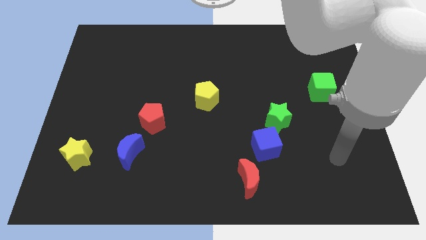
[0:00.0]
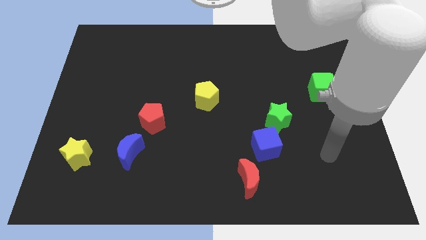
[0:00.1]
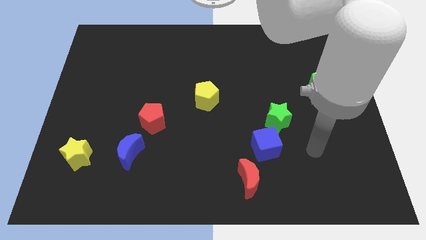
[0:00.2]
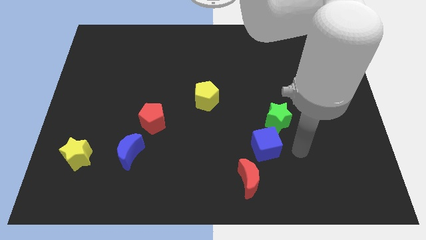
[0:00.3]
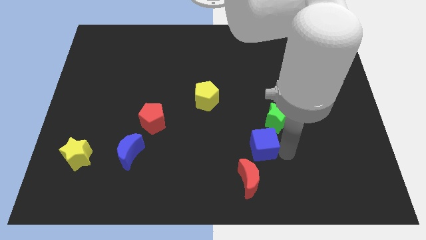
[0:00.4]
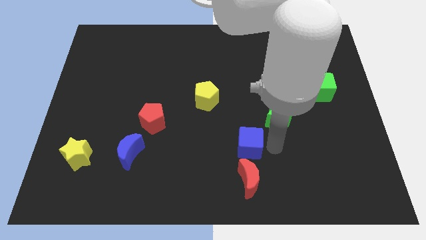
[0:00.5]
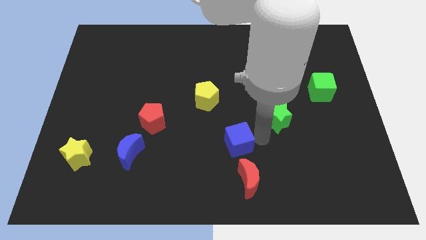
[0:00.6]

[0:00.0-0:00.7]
separate the green star from the blue cube

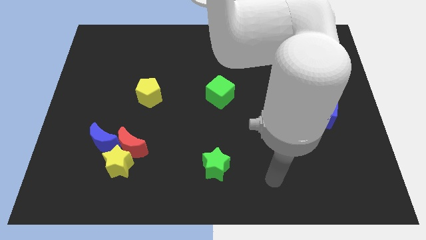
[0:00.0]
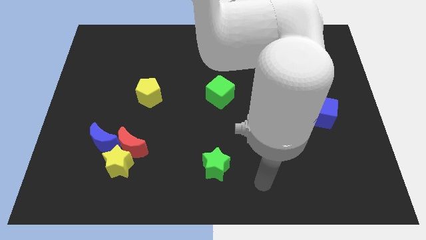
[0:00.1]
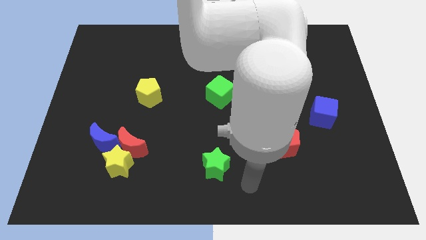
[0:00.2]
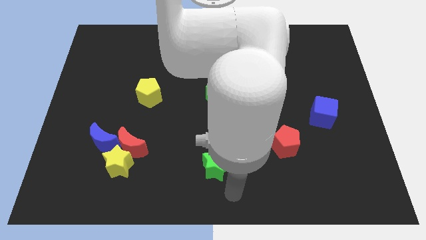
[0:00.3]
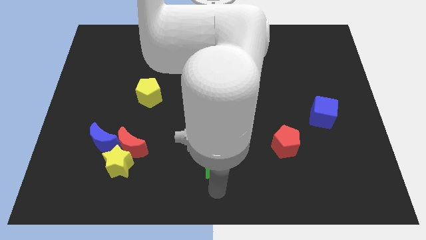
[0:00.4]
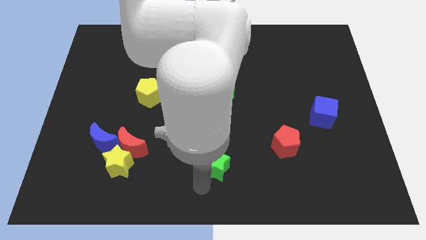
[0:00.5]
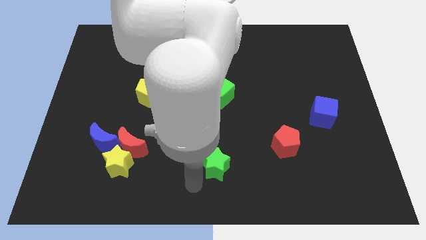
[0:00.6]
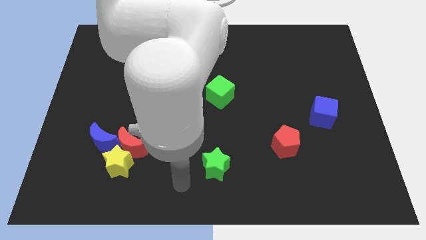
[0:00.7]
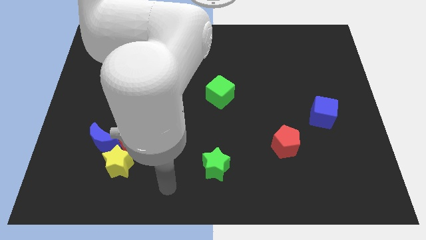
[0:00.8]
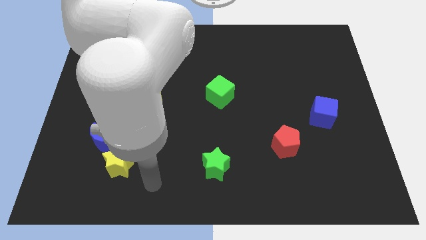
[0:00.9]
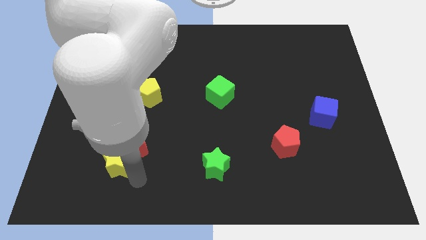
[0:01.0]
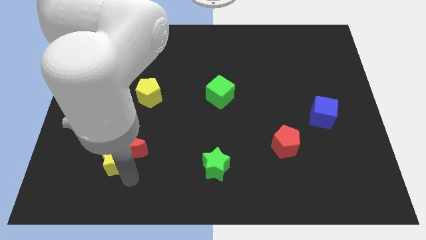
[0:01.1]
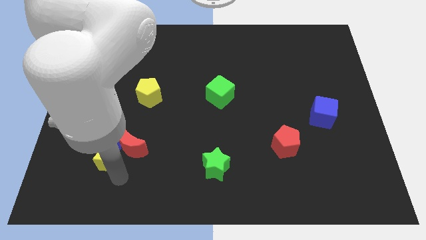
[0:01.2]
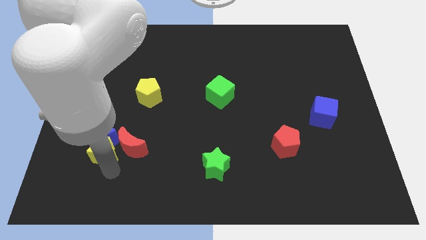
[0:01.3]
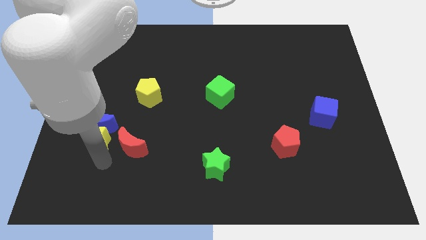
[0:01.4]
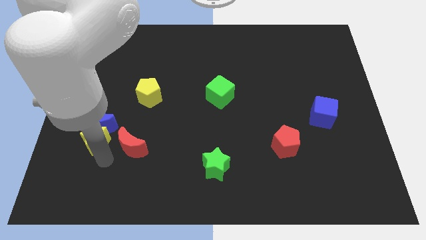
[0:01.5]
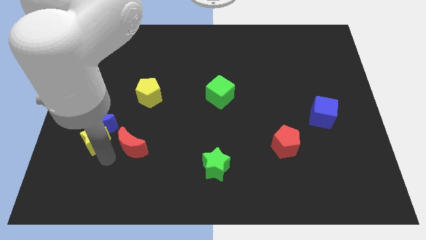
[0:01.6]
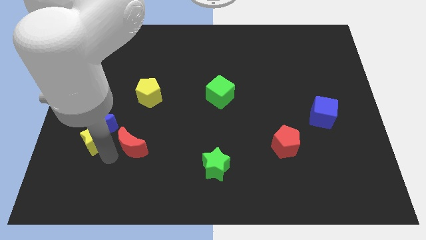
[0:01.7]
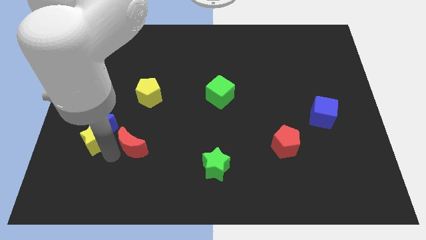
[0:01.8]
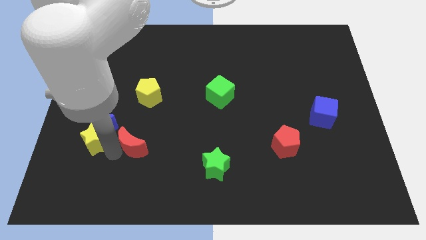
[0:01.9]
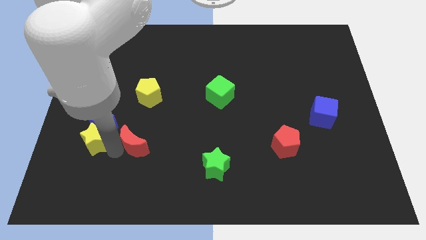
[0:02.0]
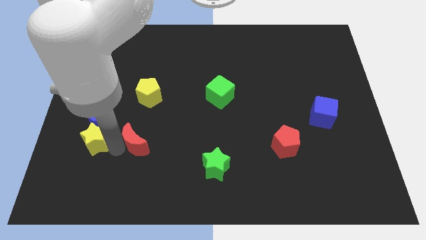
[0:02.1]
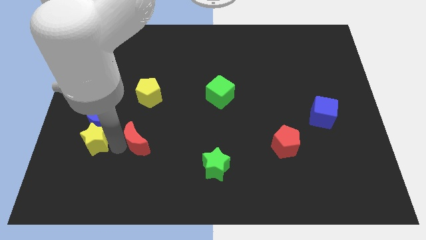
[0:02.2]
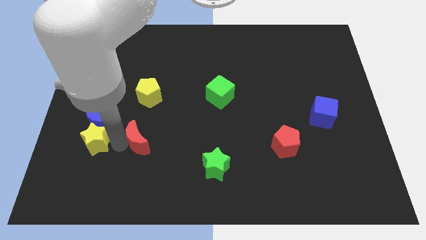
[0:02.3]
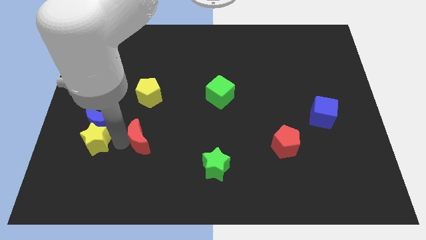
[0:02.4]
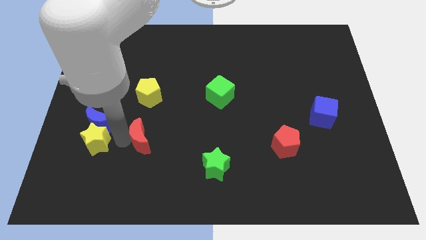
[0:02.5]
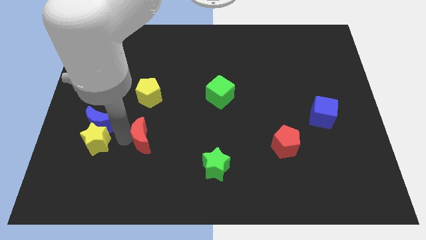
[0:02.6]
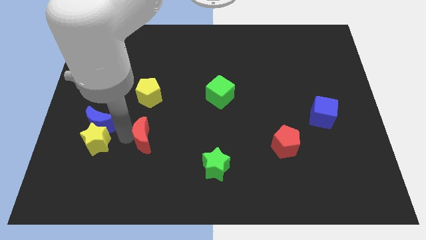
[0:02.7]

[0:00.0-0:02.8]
move the red moon away from the yellow star and blue moon

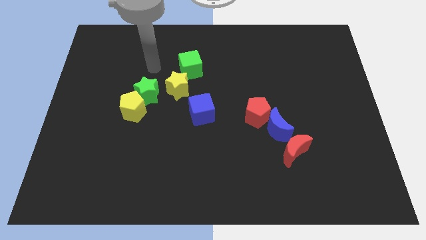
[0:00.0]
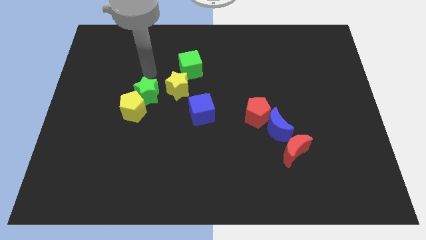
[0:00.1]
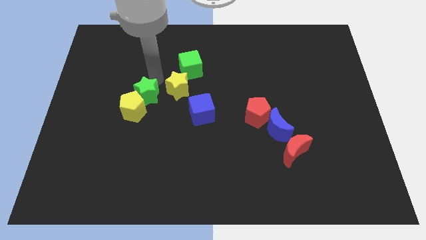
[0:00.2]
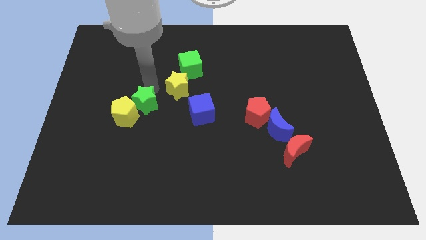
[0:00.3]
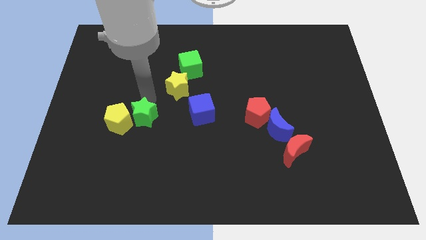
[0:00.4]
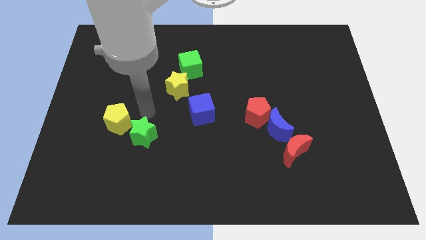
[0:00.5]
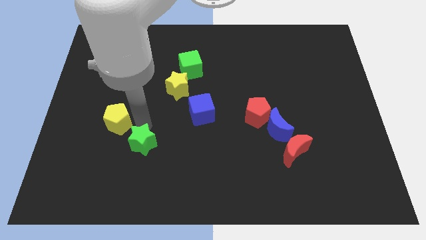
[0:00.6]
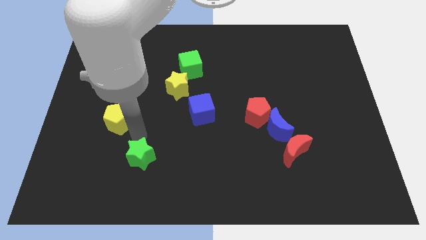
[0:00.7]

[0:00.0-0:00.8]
separate the yellow pentagon from the green star

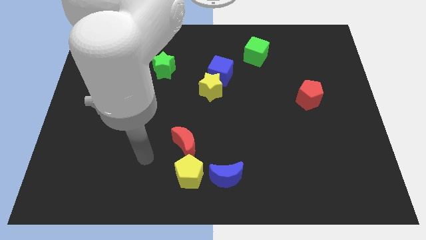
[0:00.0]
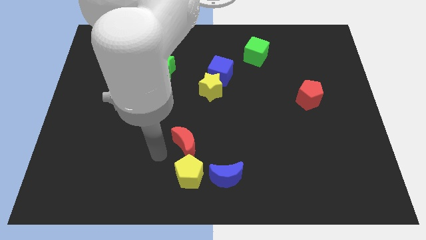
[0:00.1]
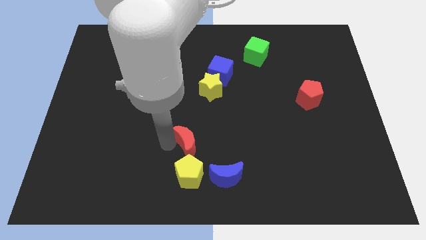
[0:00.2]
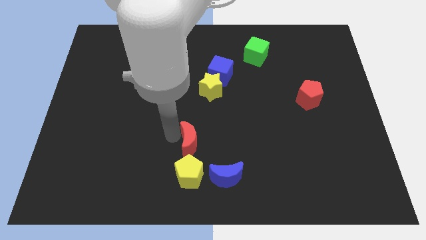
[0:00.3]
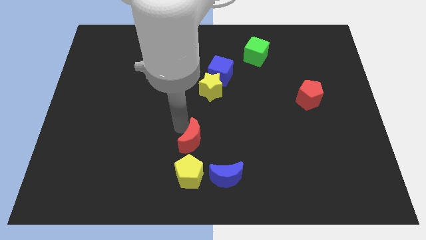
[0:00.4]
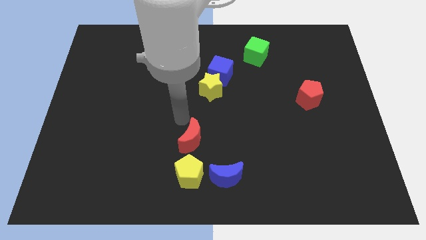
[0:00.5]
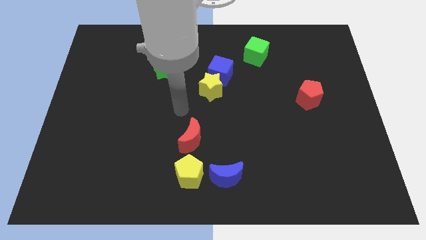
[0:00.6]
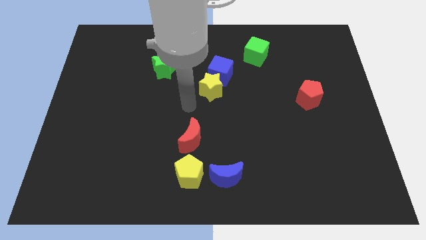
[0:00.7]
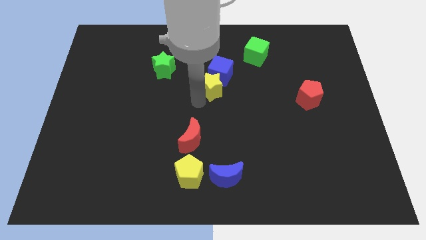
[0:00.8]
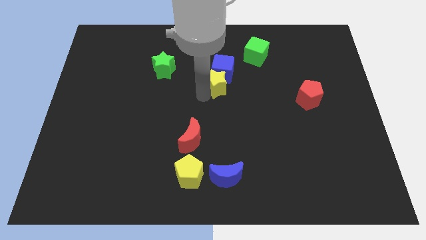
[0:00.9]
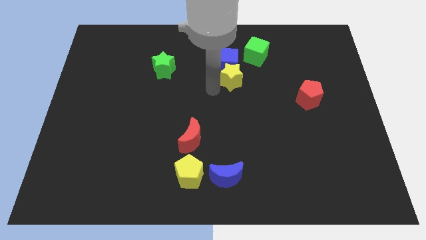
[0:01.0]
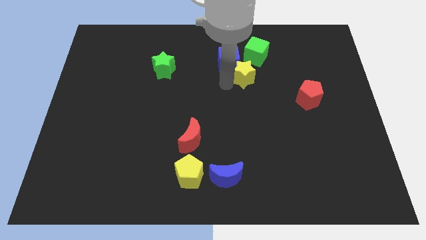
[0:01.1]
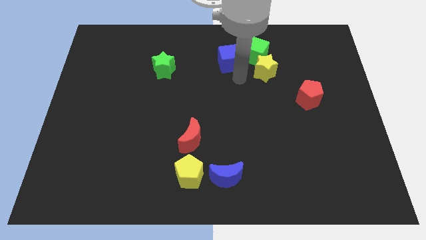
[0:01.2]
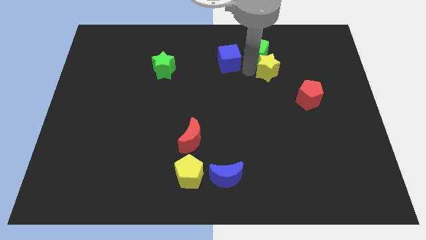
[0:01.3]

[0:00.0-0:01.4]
separate the blue cube from the yellow star

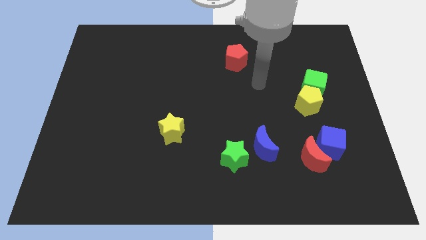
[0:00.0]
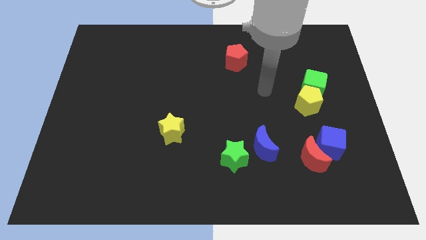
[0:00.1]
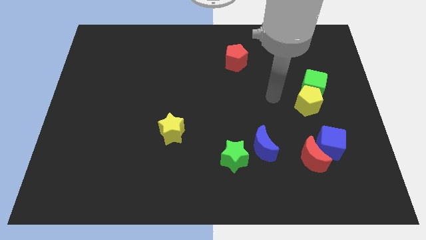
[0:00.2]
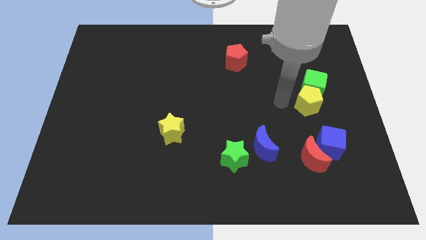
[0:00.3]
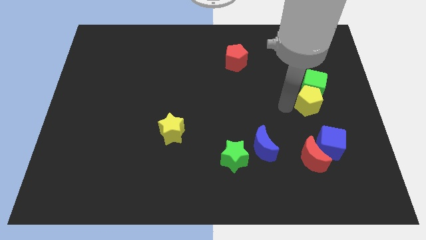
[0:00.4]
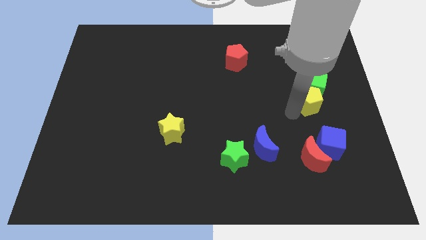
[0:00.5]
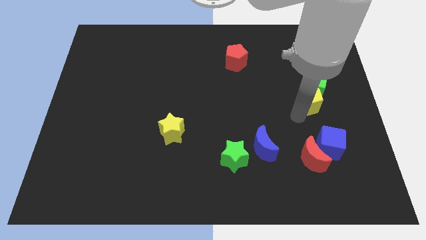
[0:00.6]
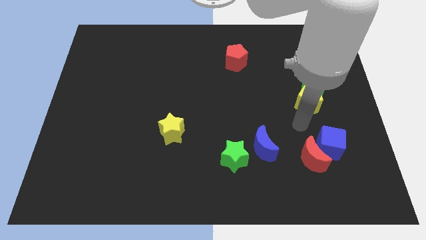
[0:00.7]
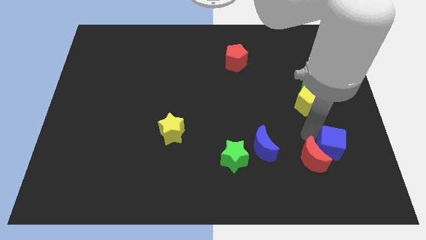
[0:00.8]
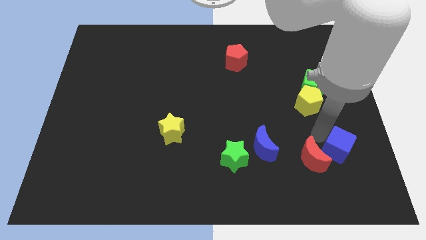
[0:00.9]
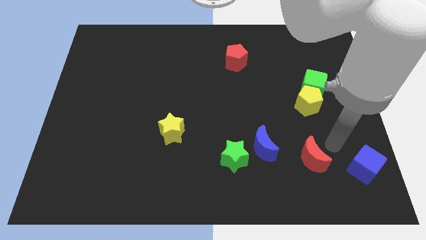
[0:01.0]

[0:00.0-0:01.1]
pull the red moon apart from the blue cube

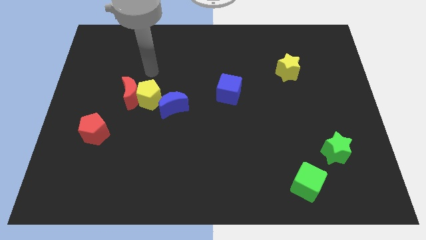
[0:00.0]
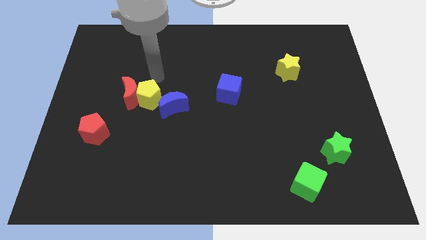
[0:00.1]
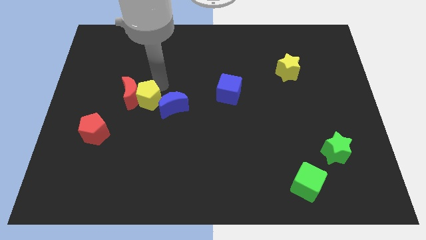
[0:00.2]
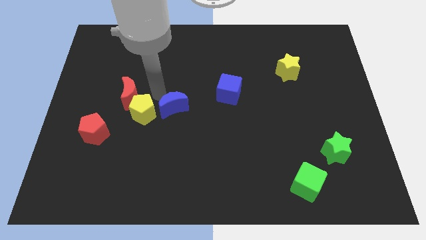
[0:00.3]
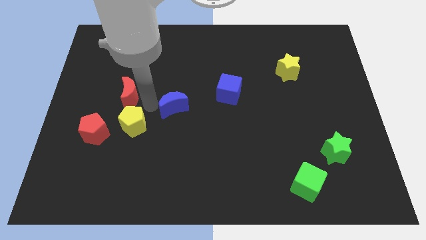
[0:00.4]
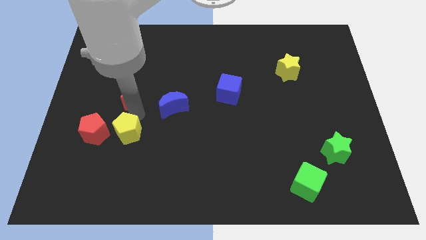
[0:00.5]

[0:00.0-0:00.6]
move the red moon away from the yellow pentagon

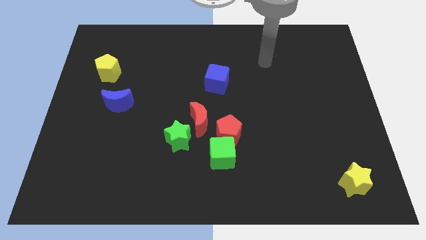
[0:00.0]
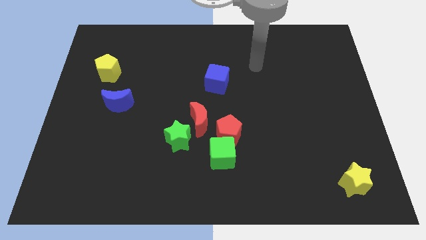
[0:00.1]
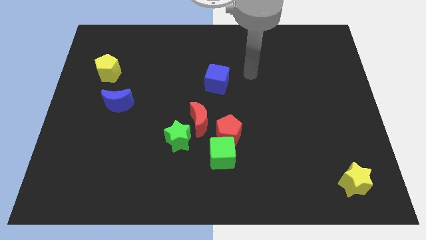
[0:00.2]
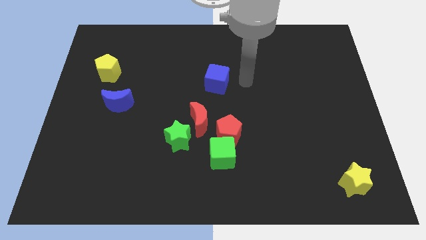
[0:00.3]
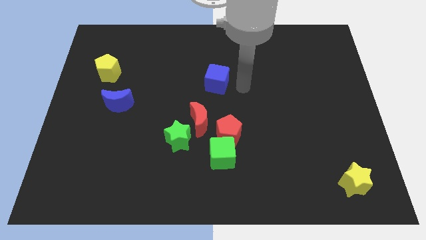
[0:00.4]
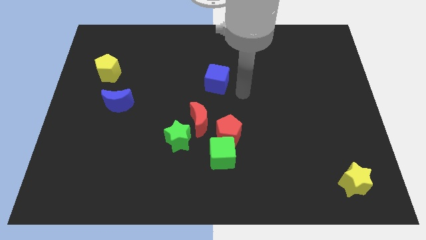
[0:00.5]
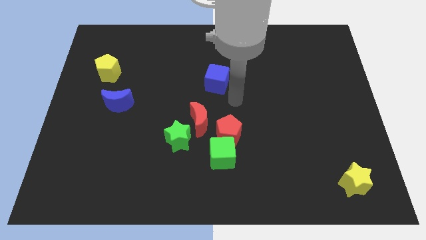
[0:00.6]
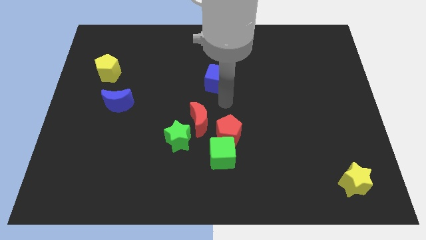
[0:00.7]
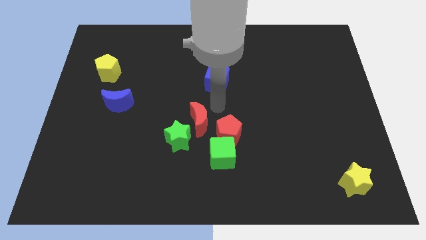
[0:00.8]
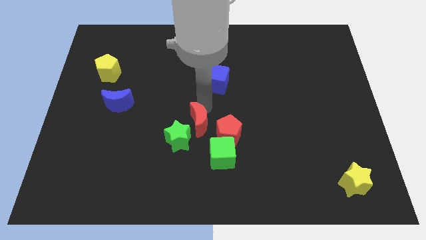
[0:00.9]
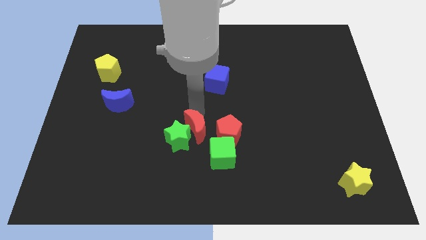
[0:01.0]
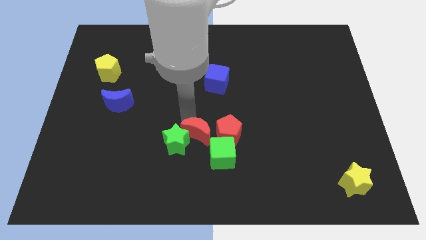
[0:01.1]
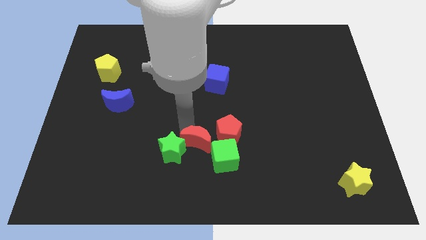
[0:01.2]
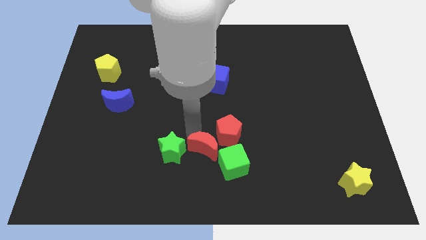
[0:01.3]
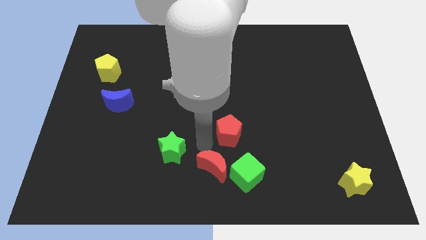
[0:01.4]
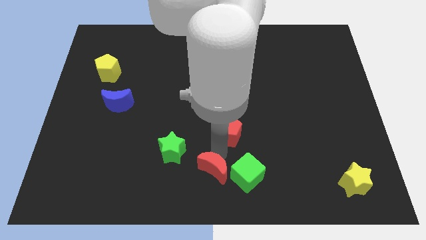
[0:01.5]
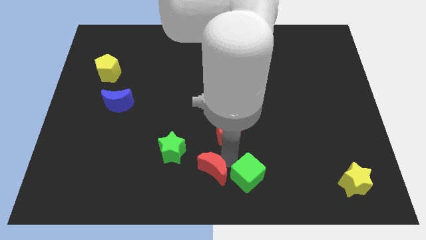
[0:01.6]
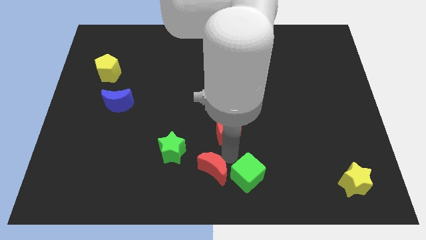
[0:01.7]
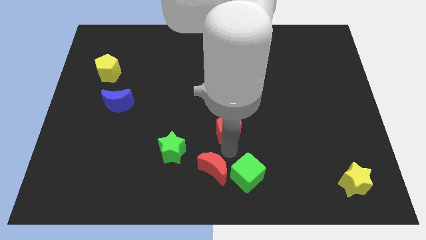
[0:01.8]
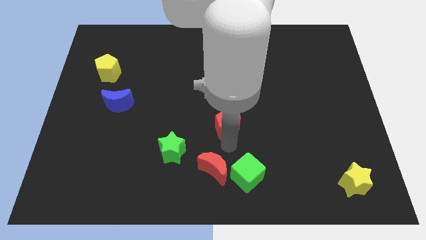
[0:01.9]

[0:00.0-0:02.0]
pull the red pentagon apart from the green cube and red moon
